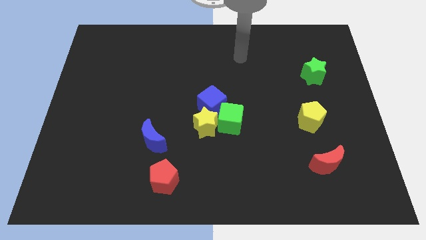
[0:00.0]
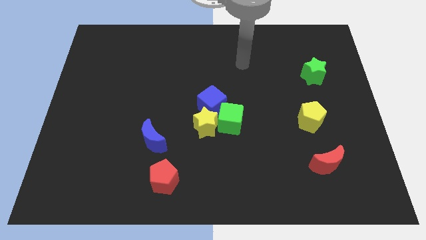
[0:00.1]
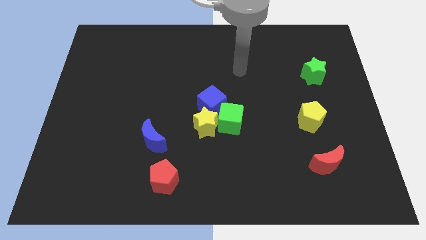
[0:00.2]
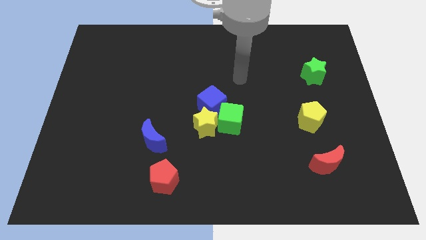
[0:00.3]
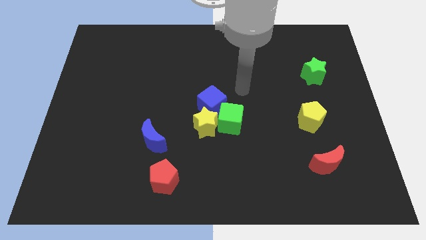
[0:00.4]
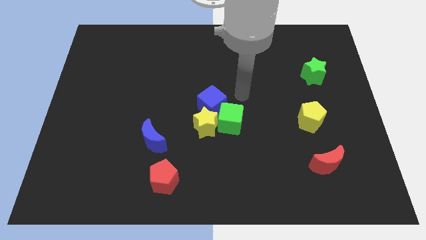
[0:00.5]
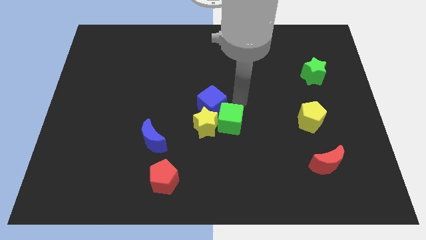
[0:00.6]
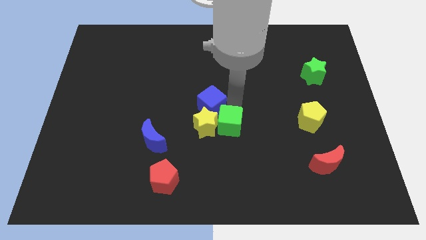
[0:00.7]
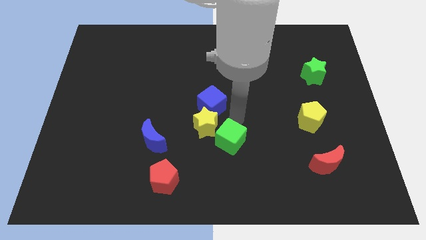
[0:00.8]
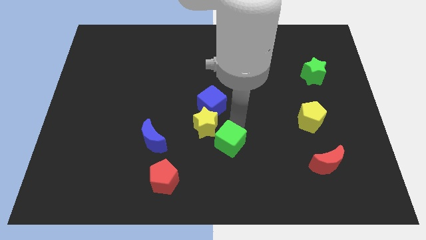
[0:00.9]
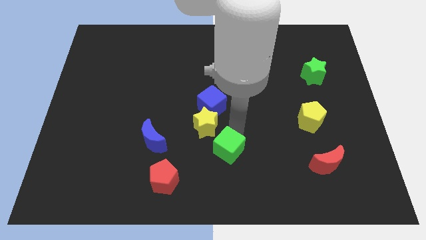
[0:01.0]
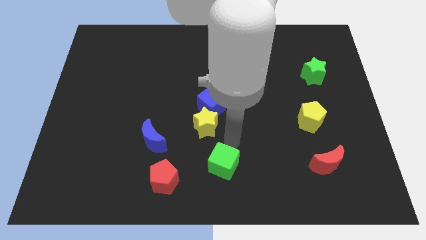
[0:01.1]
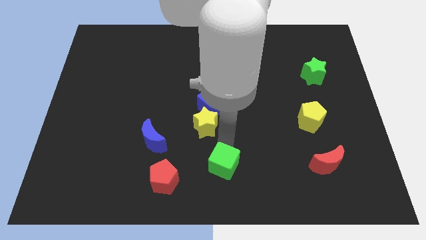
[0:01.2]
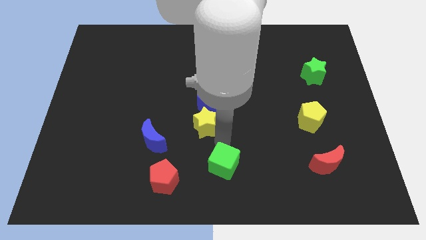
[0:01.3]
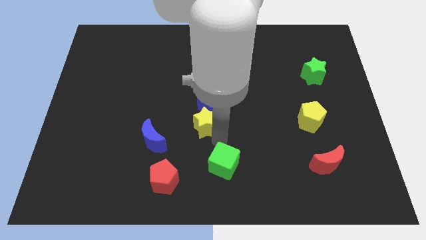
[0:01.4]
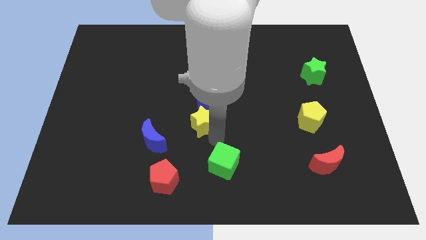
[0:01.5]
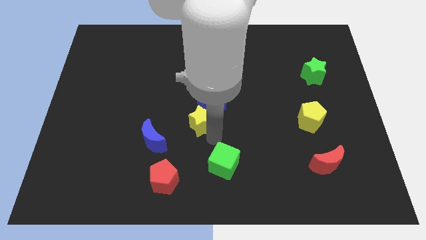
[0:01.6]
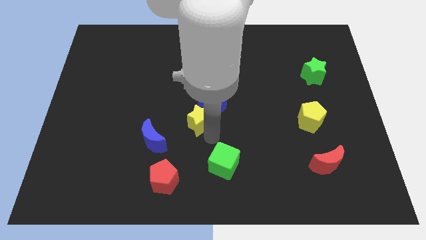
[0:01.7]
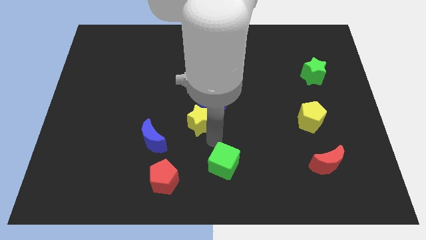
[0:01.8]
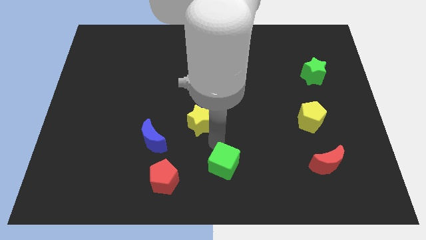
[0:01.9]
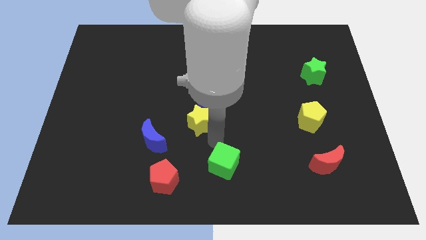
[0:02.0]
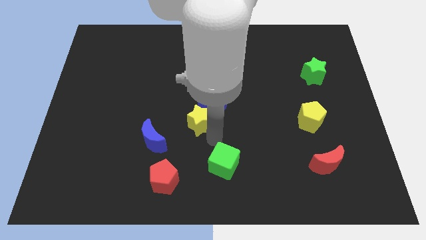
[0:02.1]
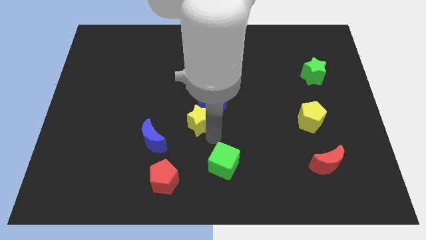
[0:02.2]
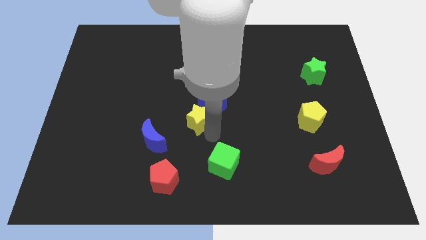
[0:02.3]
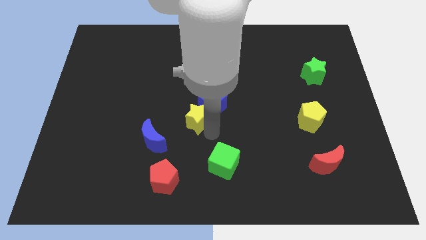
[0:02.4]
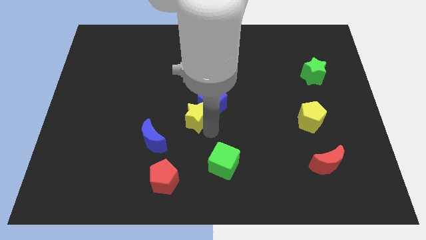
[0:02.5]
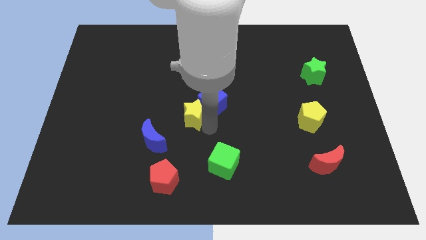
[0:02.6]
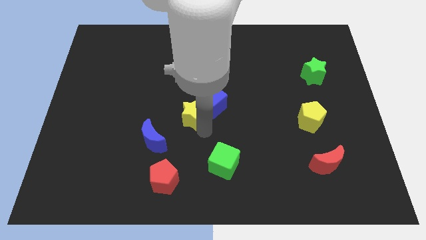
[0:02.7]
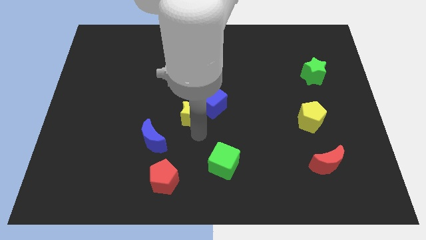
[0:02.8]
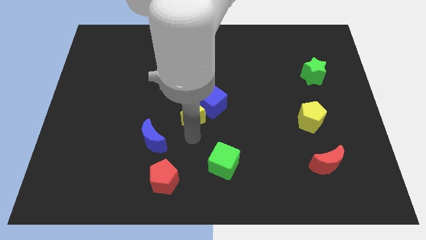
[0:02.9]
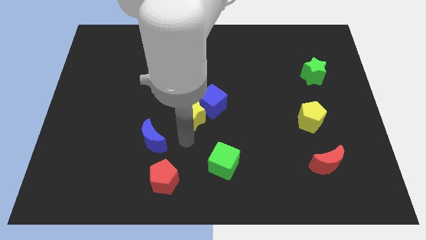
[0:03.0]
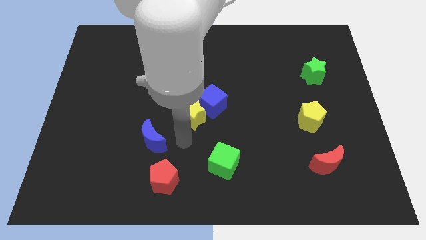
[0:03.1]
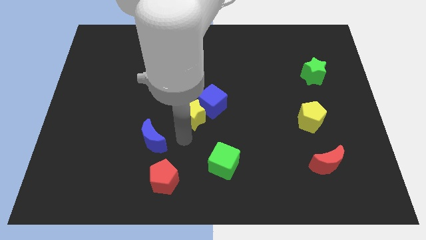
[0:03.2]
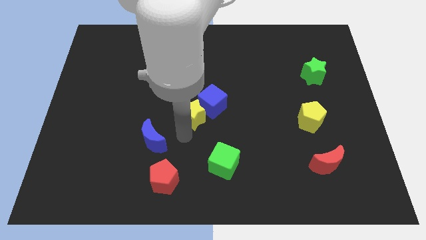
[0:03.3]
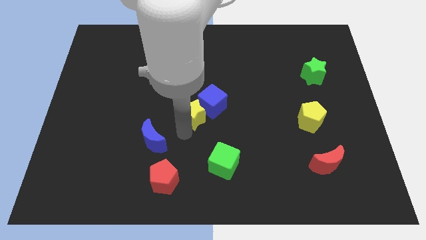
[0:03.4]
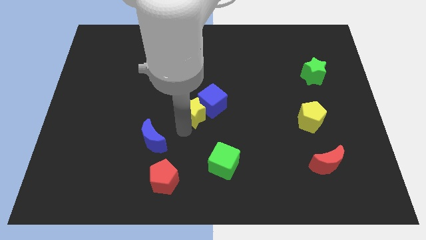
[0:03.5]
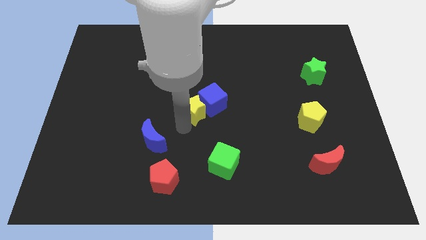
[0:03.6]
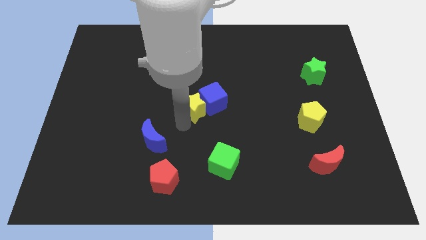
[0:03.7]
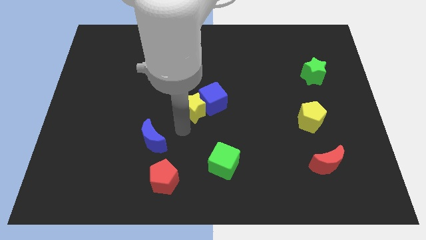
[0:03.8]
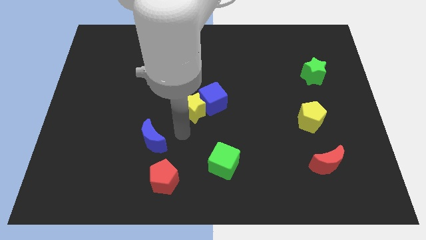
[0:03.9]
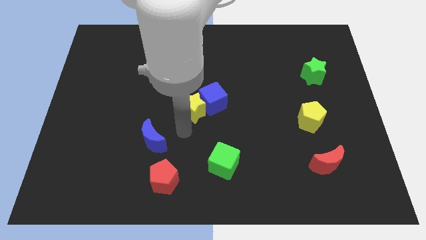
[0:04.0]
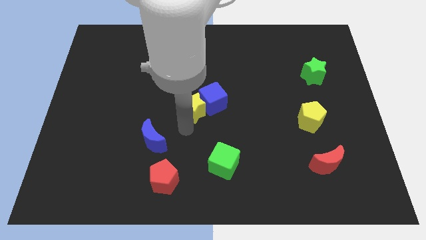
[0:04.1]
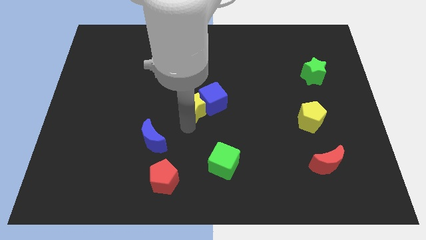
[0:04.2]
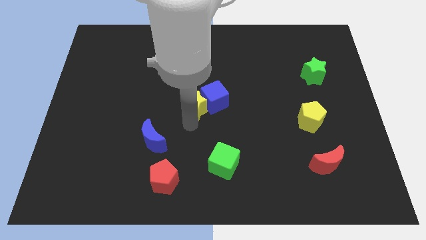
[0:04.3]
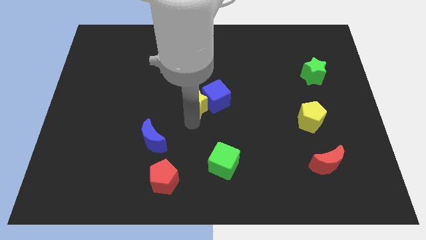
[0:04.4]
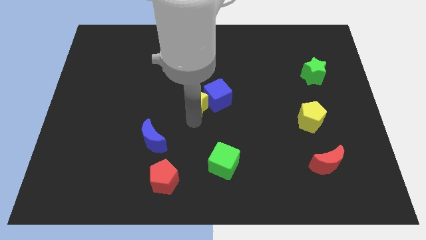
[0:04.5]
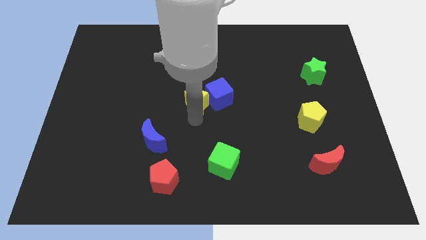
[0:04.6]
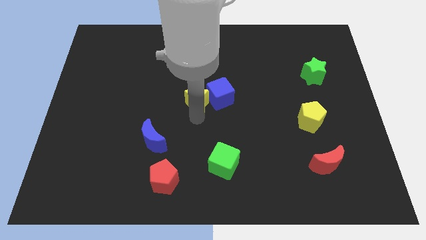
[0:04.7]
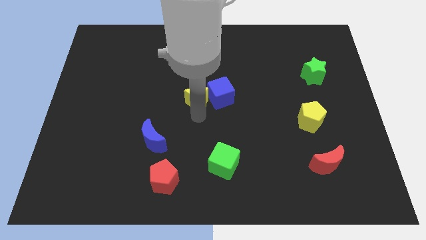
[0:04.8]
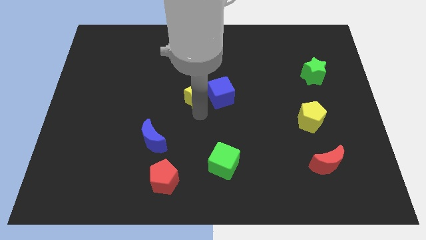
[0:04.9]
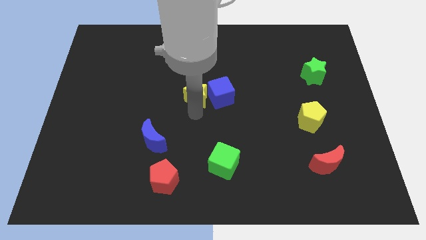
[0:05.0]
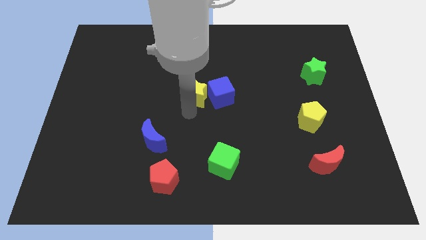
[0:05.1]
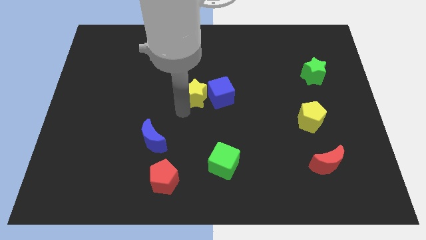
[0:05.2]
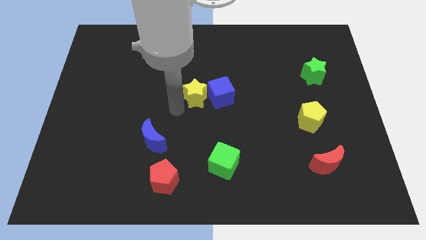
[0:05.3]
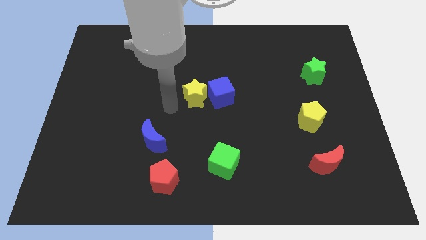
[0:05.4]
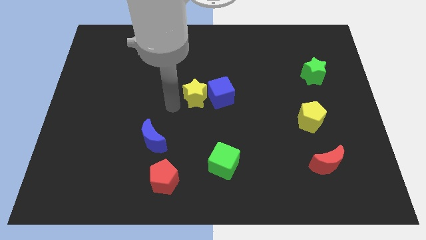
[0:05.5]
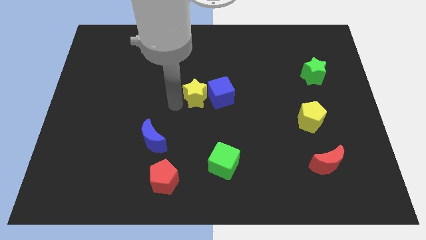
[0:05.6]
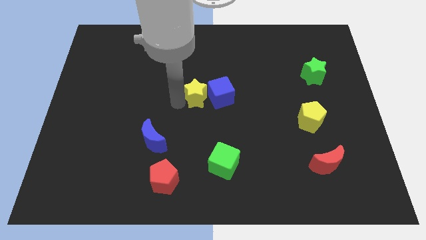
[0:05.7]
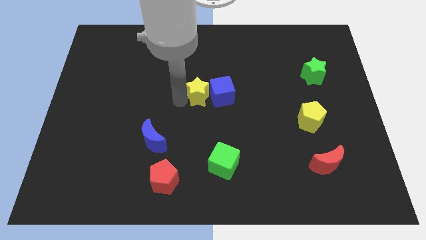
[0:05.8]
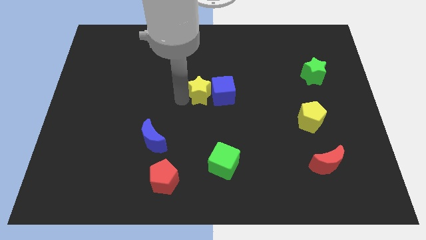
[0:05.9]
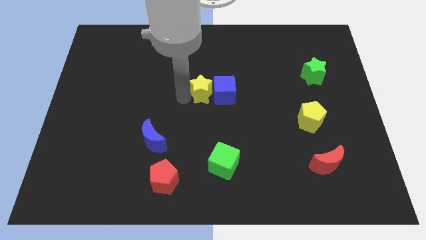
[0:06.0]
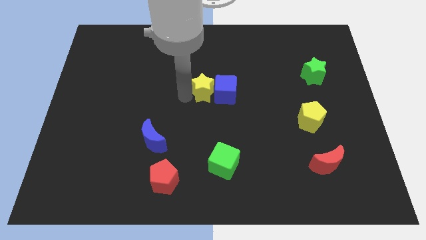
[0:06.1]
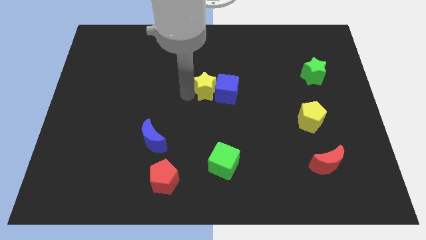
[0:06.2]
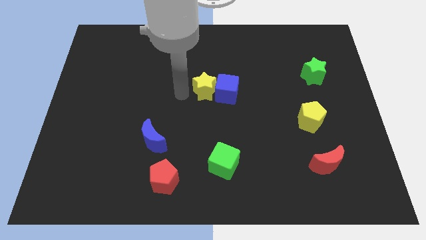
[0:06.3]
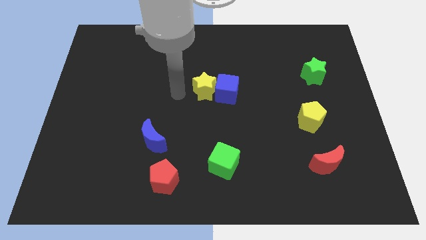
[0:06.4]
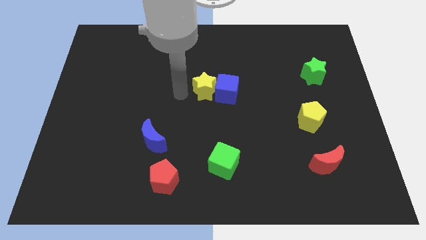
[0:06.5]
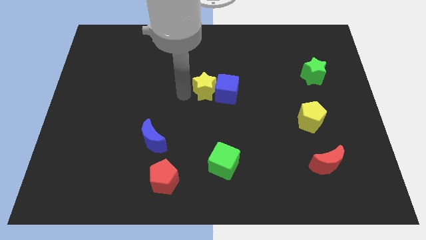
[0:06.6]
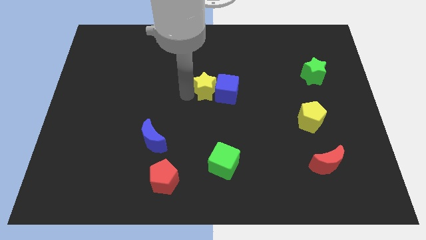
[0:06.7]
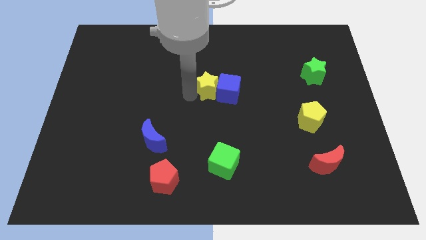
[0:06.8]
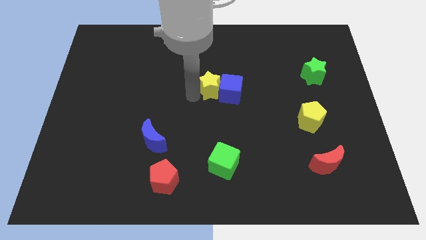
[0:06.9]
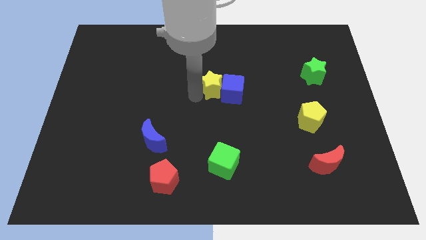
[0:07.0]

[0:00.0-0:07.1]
slightly move the yellow star diagonally up and right

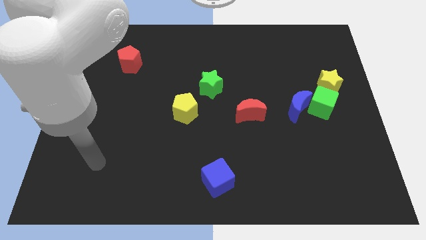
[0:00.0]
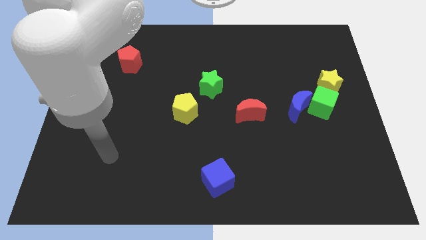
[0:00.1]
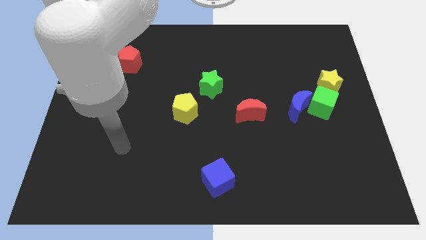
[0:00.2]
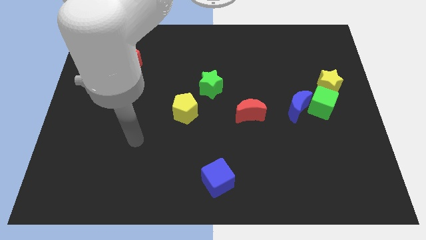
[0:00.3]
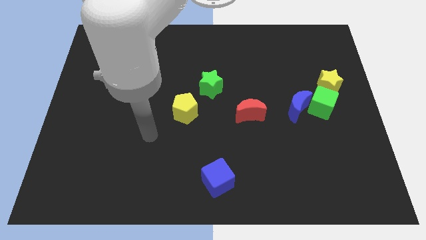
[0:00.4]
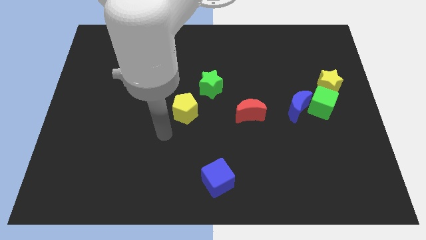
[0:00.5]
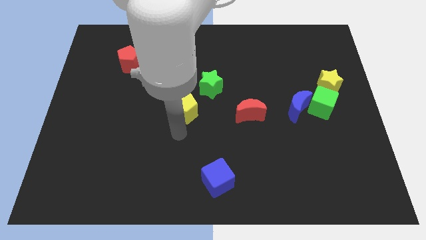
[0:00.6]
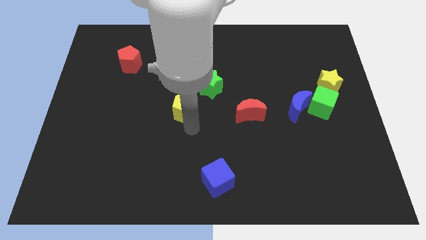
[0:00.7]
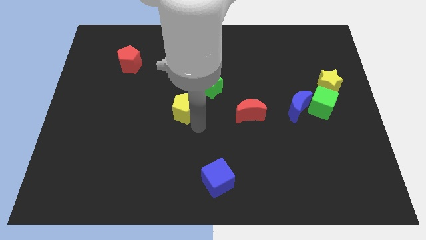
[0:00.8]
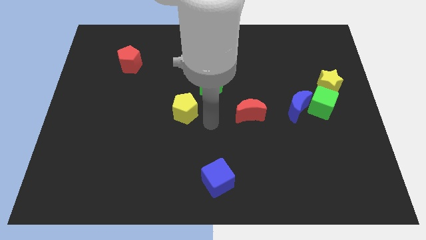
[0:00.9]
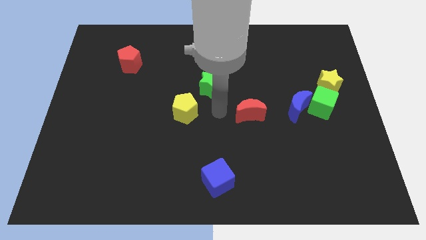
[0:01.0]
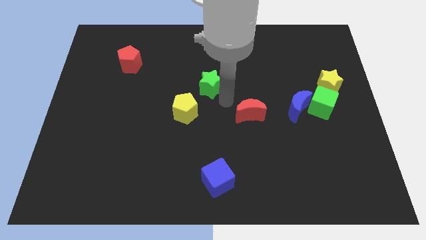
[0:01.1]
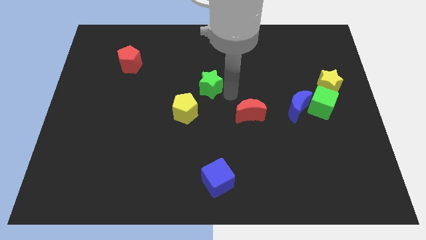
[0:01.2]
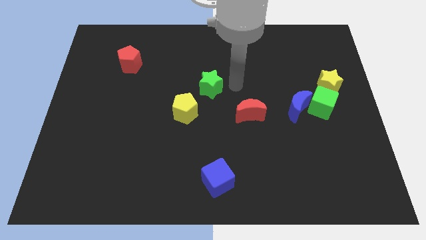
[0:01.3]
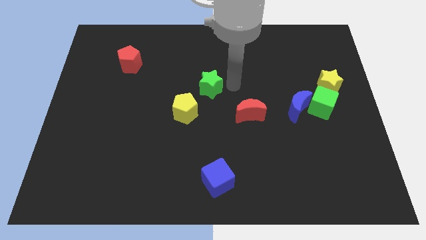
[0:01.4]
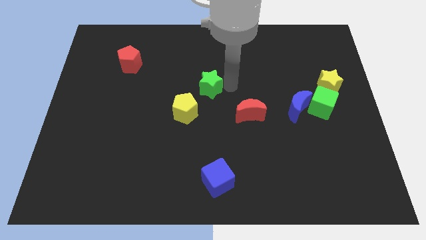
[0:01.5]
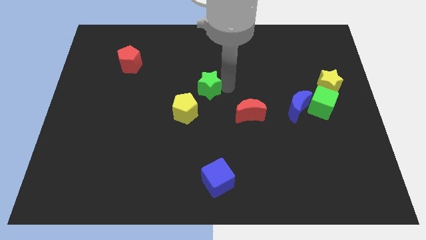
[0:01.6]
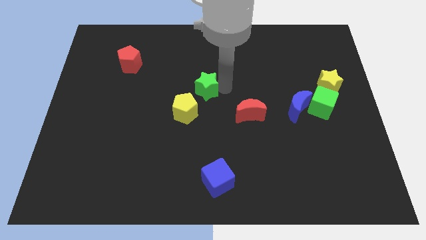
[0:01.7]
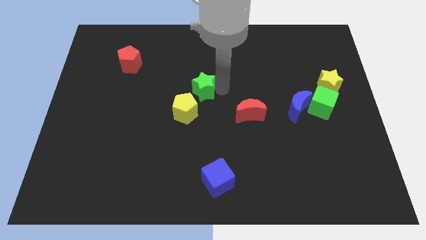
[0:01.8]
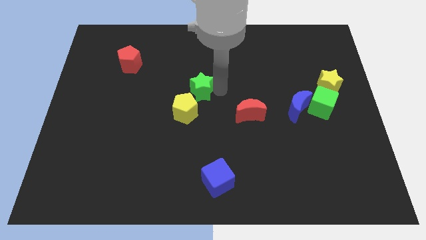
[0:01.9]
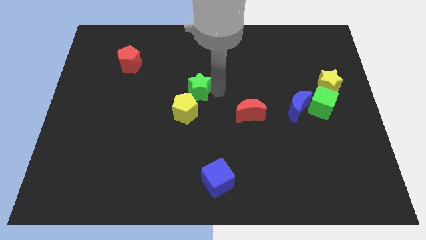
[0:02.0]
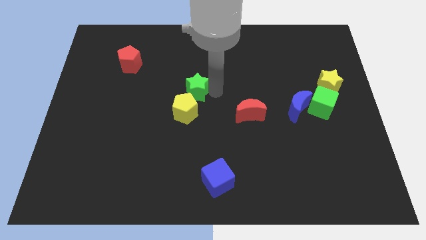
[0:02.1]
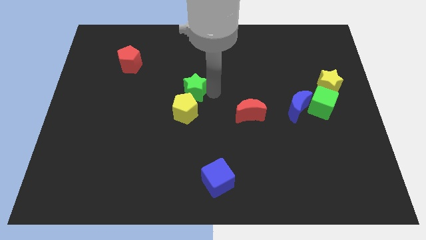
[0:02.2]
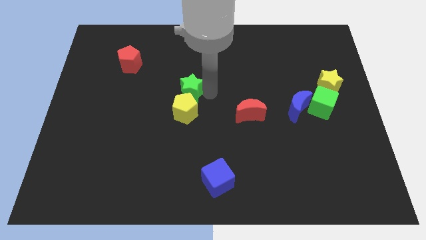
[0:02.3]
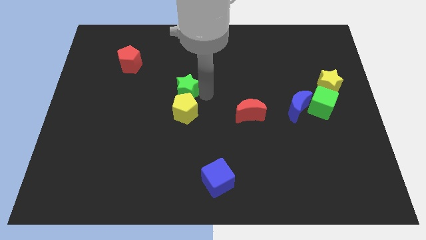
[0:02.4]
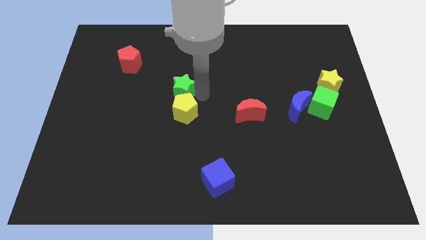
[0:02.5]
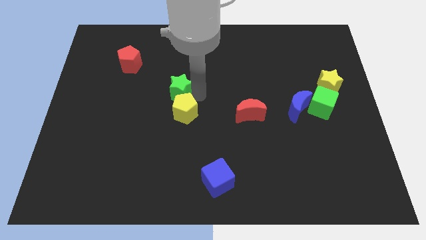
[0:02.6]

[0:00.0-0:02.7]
slightly slide the green star left
